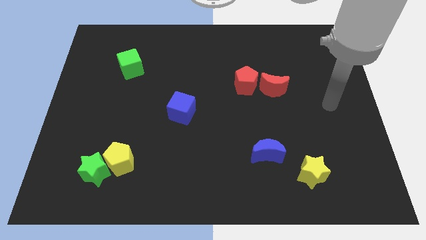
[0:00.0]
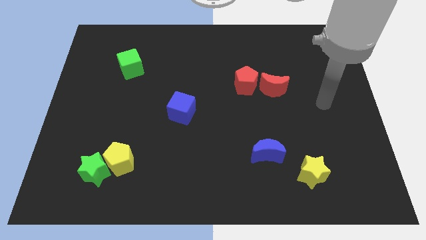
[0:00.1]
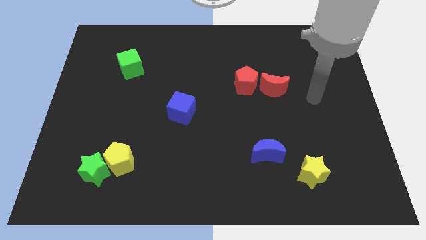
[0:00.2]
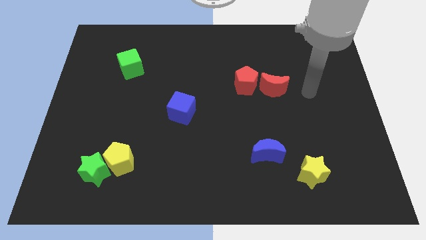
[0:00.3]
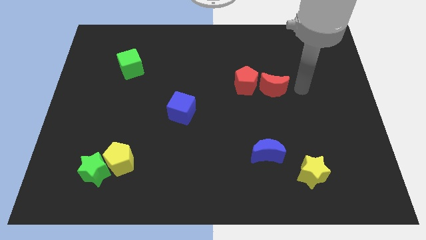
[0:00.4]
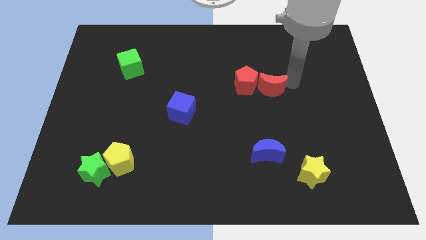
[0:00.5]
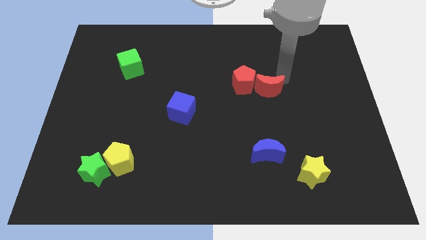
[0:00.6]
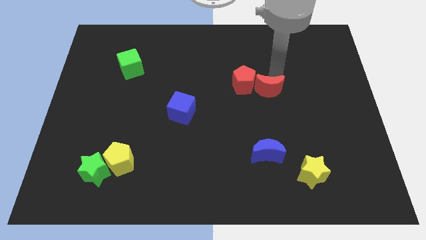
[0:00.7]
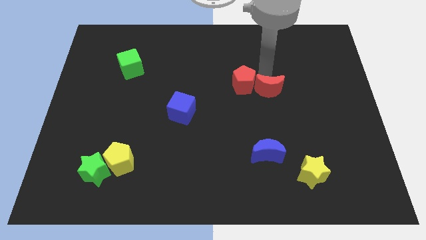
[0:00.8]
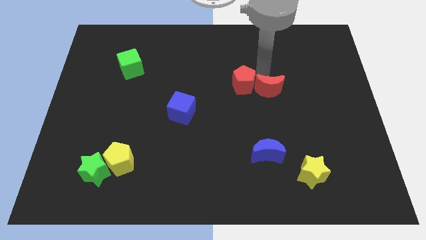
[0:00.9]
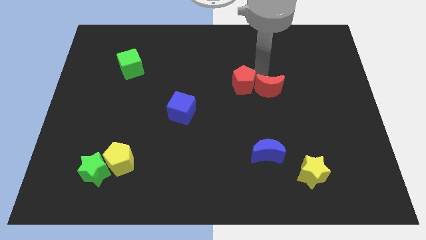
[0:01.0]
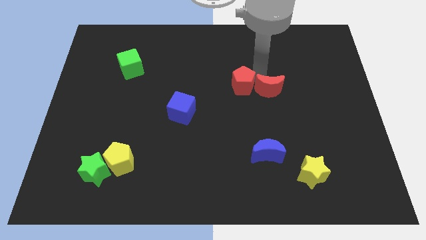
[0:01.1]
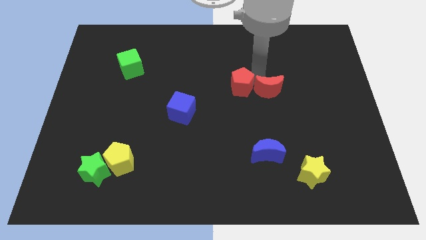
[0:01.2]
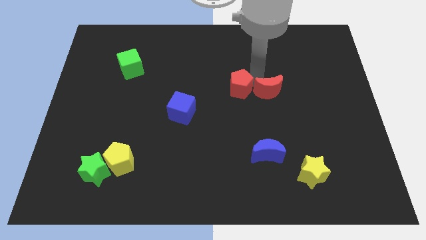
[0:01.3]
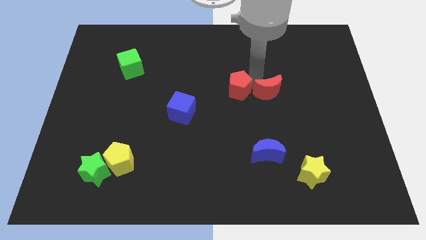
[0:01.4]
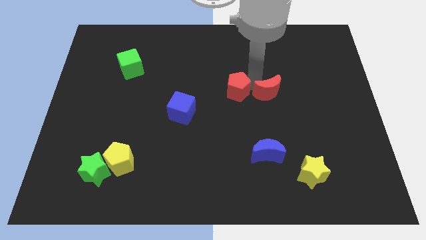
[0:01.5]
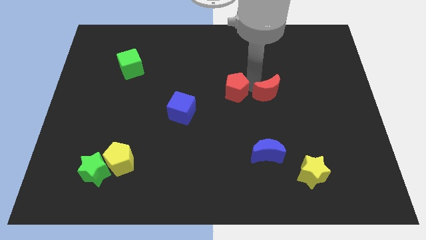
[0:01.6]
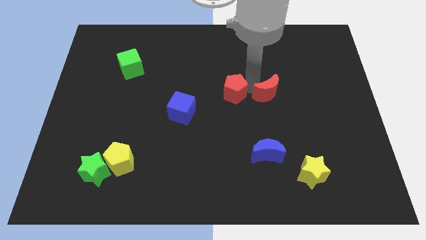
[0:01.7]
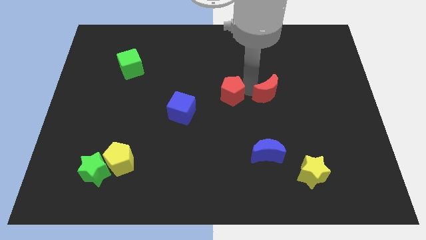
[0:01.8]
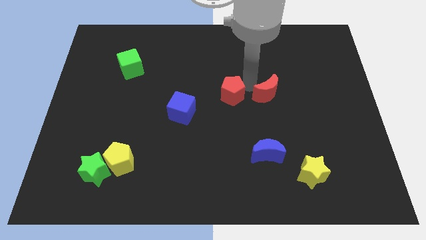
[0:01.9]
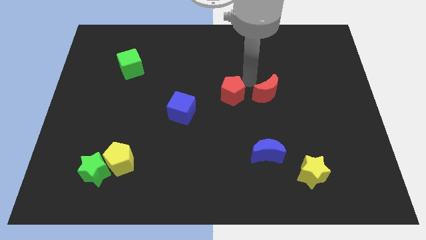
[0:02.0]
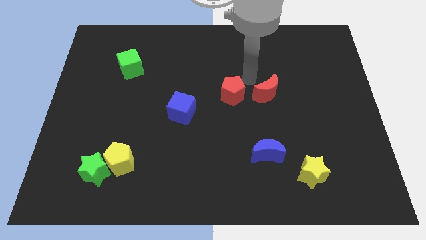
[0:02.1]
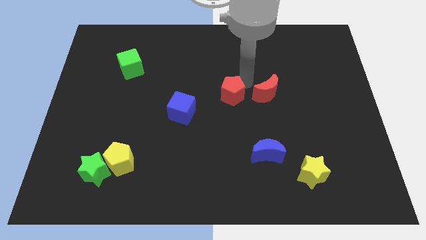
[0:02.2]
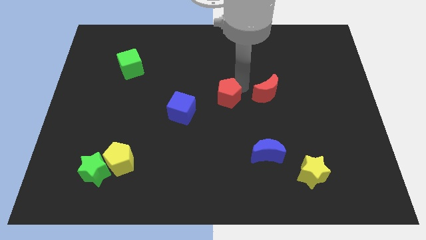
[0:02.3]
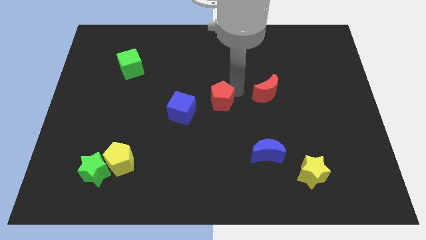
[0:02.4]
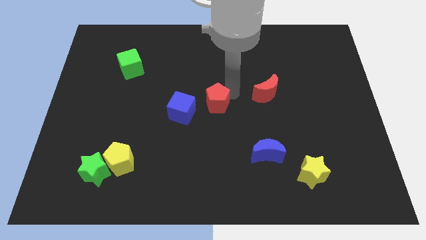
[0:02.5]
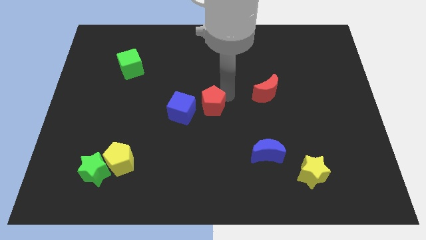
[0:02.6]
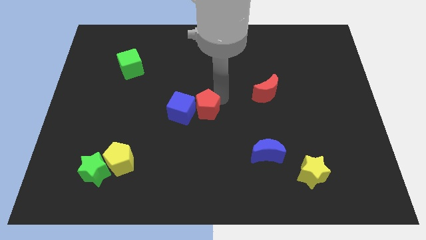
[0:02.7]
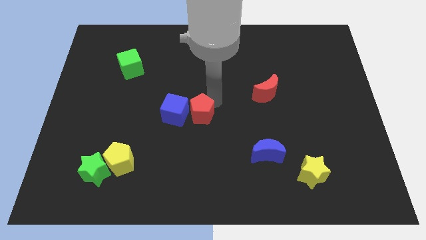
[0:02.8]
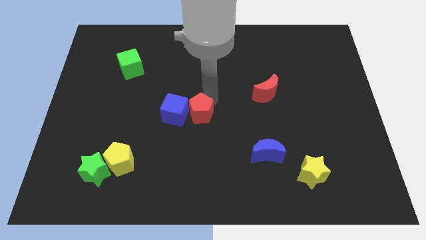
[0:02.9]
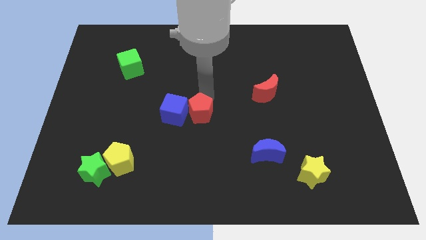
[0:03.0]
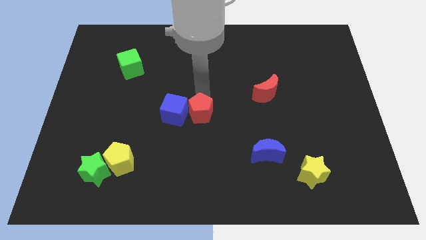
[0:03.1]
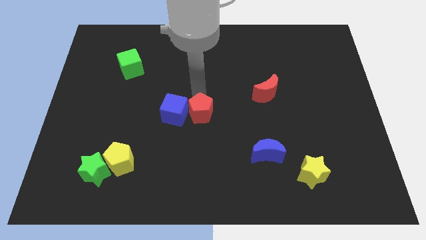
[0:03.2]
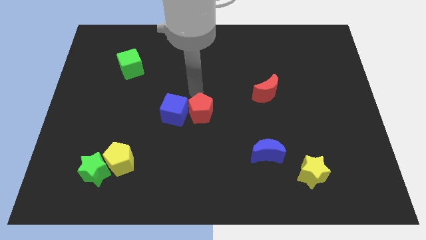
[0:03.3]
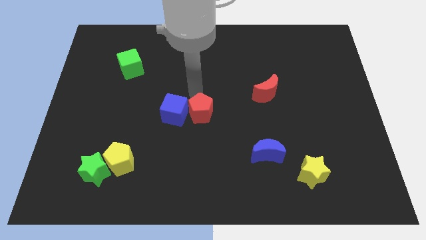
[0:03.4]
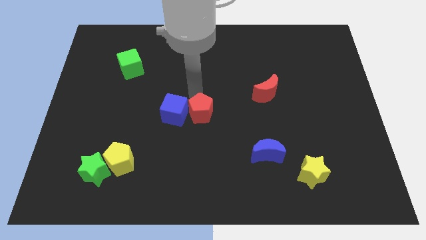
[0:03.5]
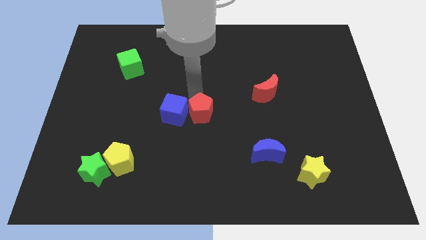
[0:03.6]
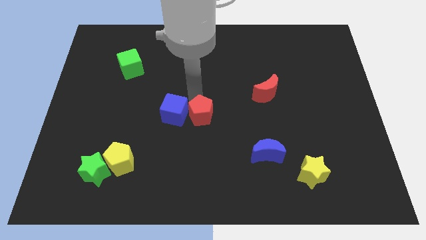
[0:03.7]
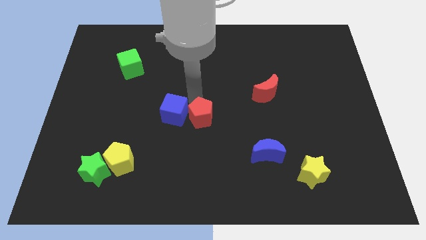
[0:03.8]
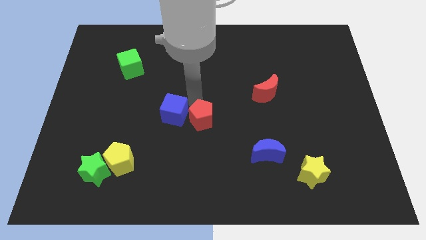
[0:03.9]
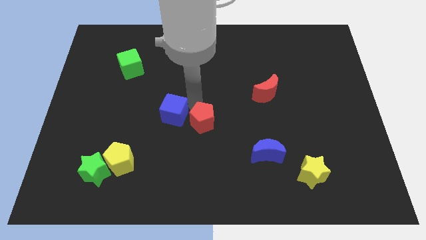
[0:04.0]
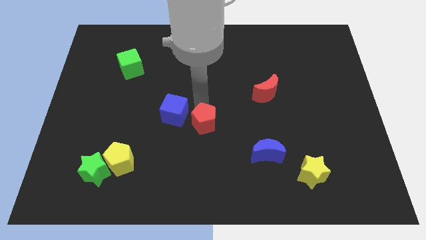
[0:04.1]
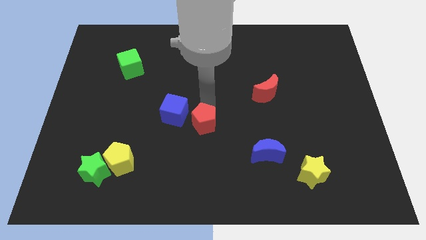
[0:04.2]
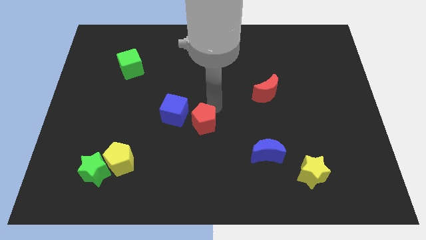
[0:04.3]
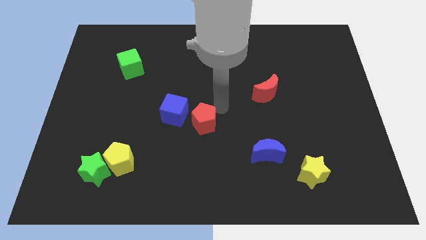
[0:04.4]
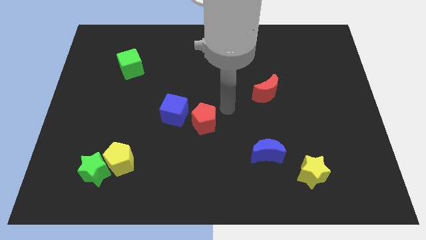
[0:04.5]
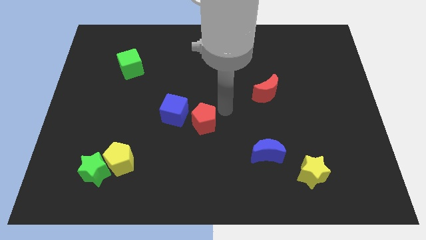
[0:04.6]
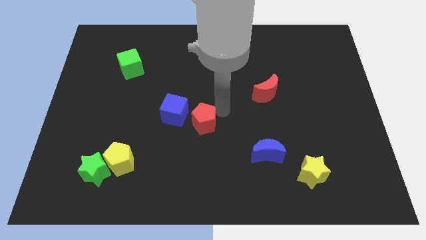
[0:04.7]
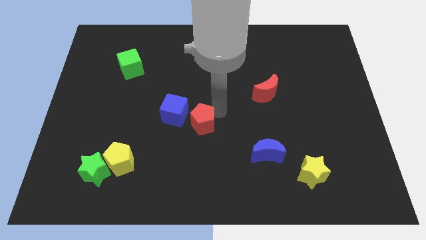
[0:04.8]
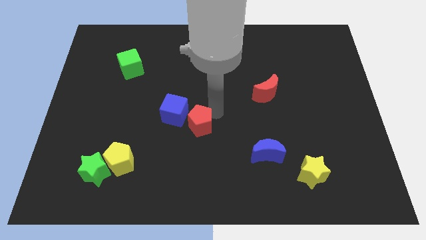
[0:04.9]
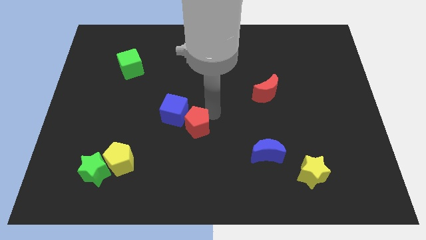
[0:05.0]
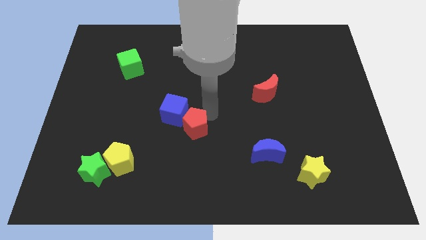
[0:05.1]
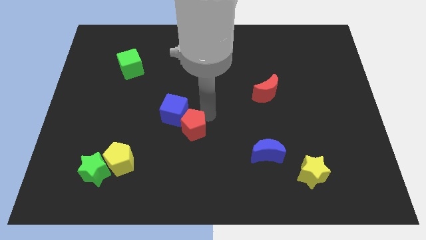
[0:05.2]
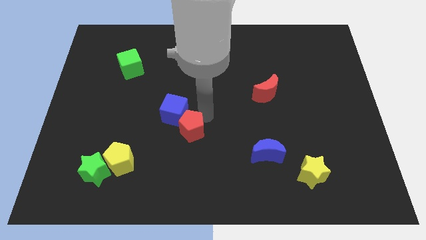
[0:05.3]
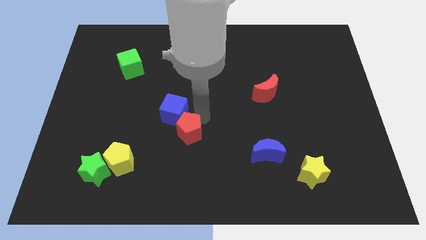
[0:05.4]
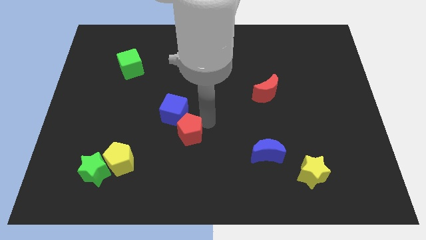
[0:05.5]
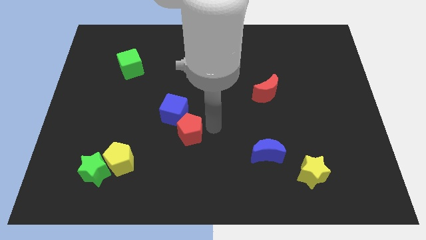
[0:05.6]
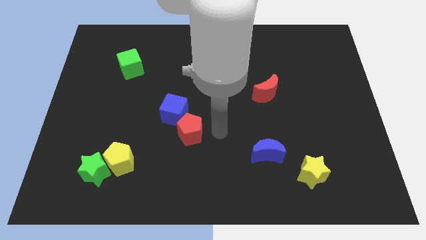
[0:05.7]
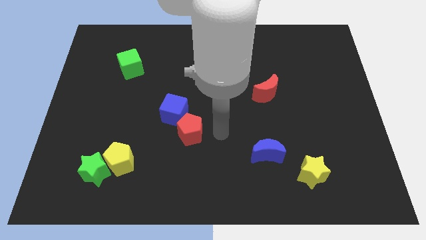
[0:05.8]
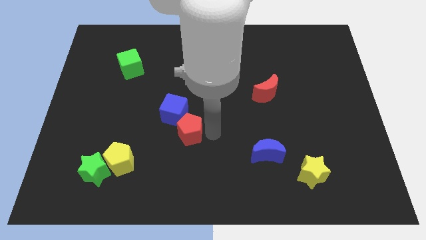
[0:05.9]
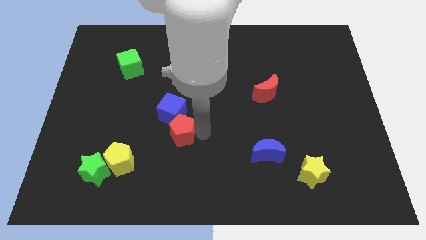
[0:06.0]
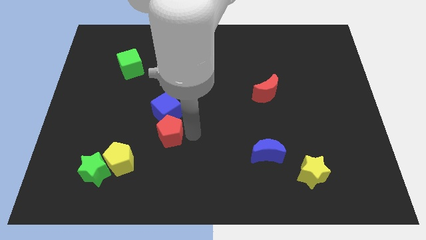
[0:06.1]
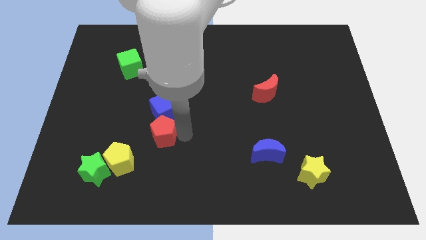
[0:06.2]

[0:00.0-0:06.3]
slide the red pentagon diagonally down and to the left of the blue cube

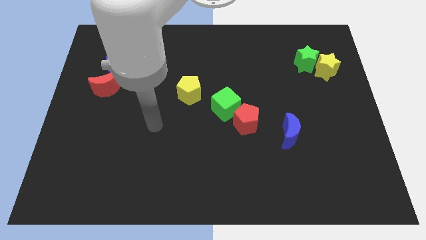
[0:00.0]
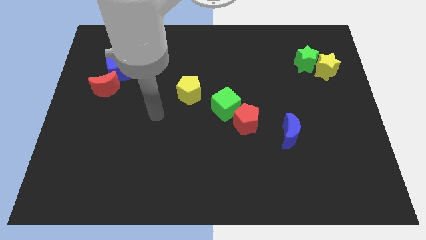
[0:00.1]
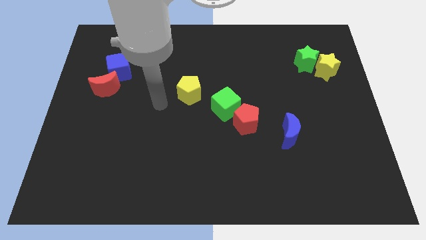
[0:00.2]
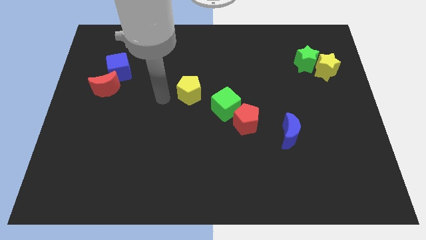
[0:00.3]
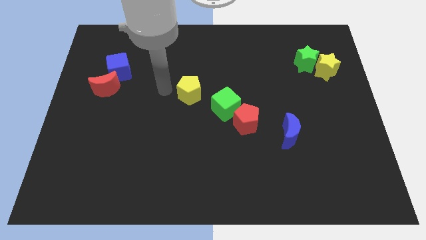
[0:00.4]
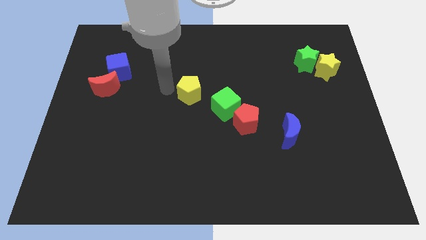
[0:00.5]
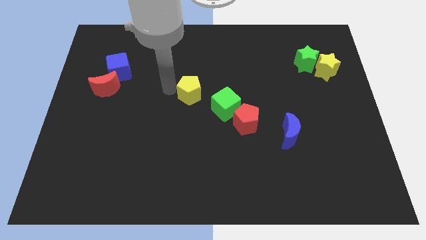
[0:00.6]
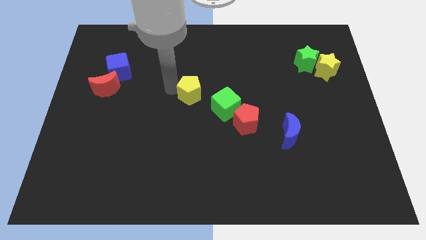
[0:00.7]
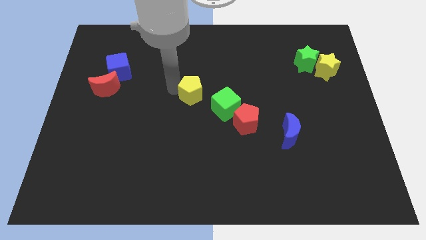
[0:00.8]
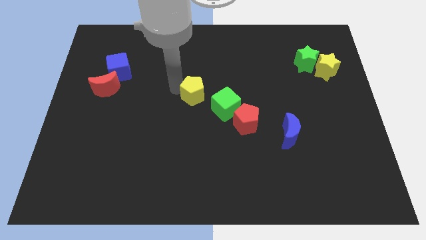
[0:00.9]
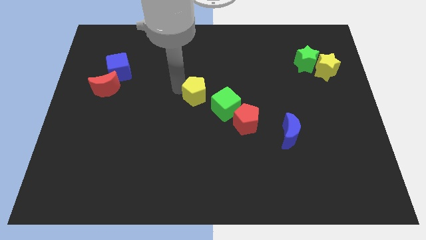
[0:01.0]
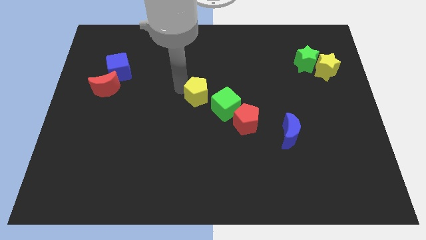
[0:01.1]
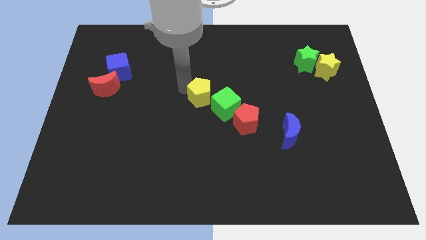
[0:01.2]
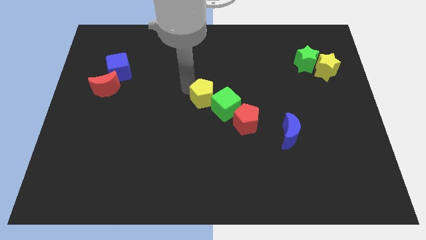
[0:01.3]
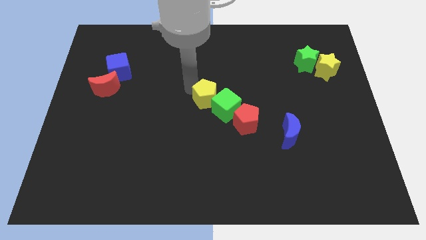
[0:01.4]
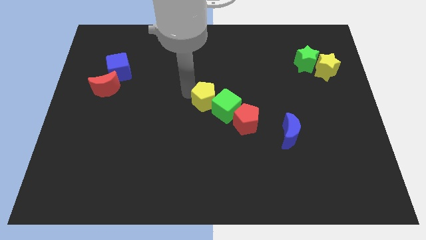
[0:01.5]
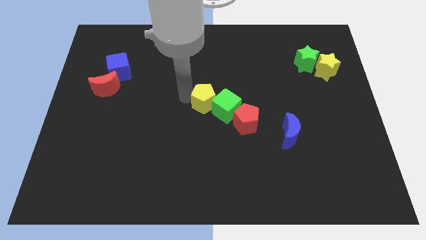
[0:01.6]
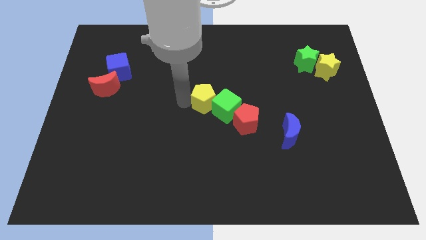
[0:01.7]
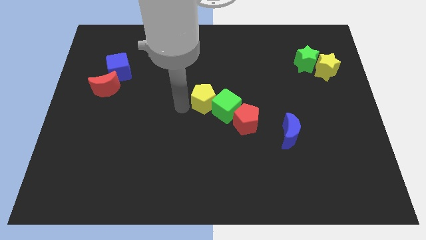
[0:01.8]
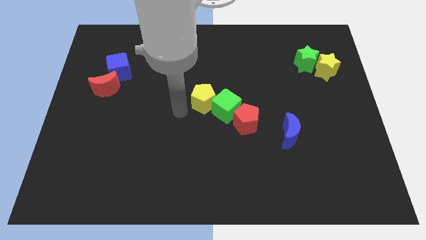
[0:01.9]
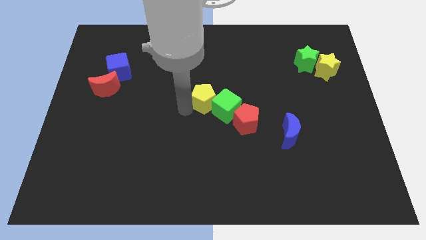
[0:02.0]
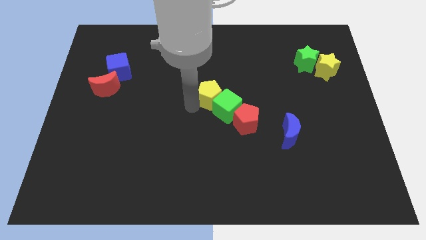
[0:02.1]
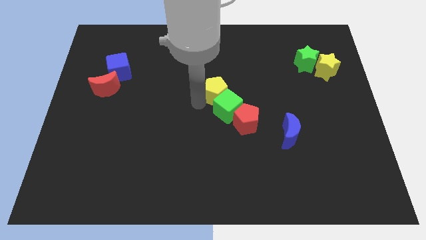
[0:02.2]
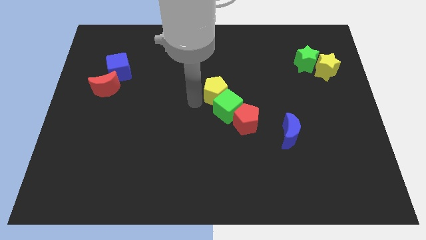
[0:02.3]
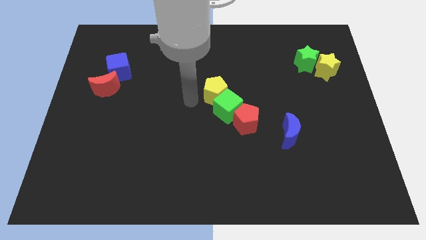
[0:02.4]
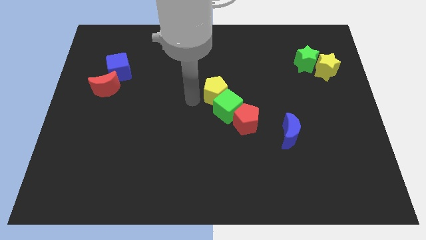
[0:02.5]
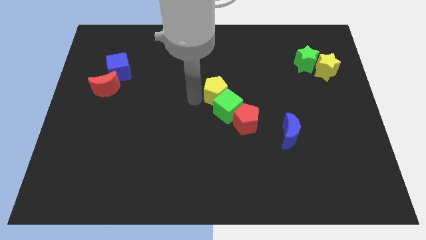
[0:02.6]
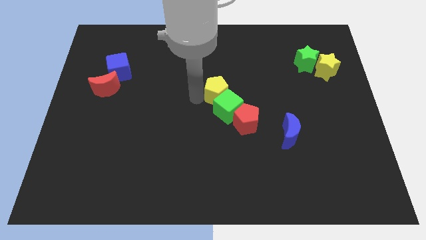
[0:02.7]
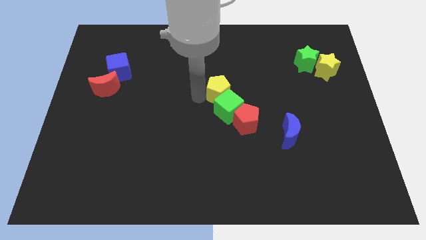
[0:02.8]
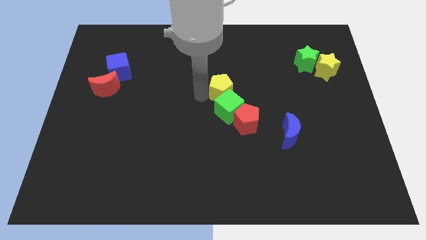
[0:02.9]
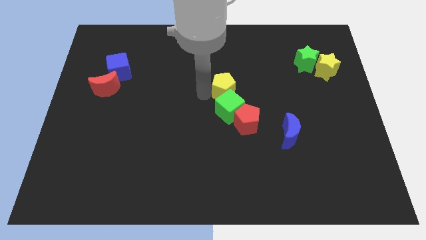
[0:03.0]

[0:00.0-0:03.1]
slide the yellow pentagon to the top right side of the green cube
